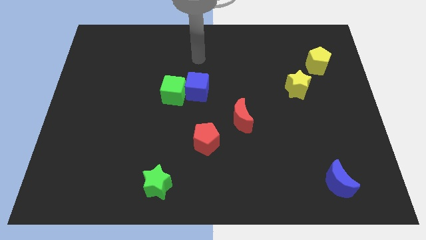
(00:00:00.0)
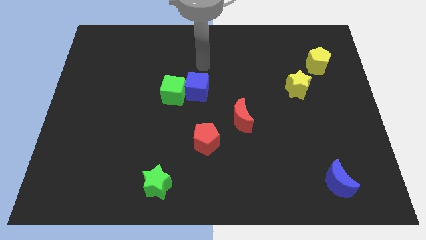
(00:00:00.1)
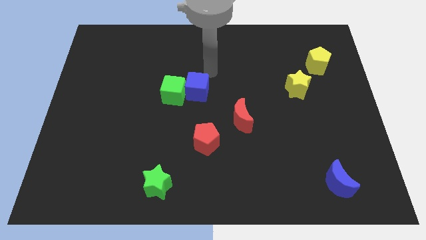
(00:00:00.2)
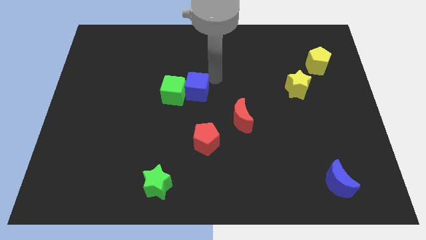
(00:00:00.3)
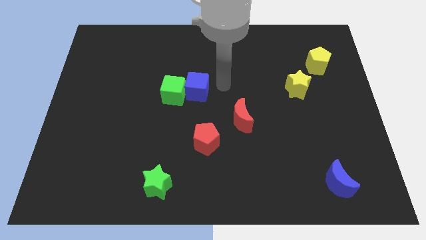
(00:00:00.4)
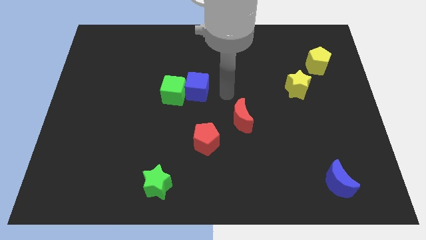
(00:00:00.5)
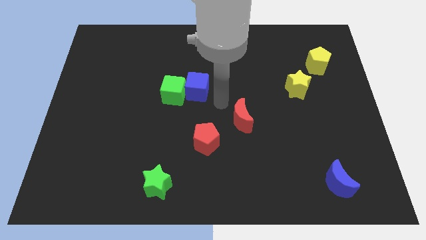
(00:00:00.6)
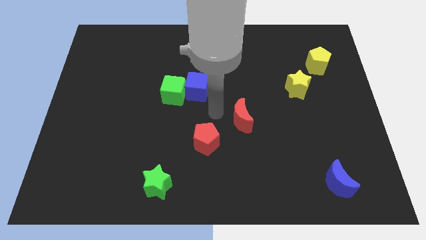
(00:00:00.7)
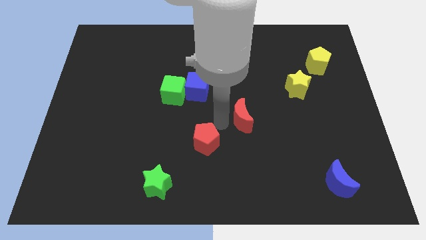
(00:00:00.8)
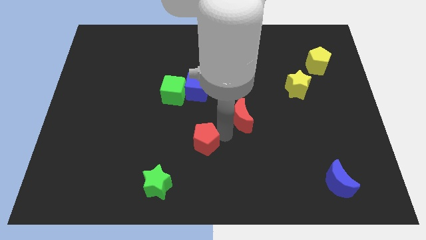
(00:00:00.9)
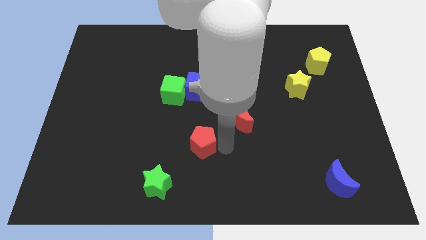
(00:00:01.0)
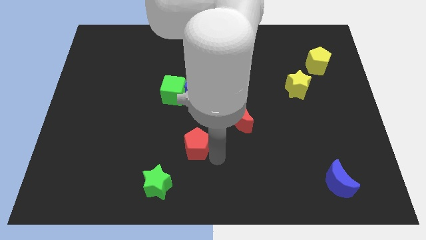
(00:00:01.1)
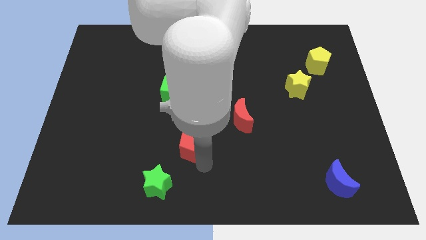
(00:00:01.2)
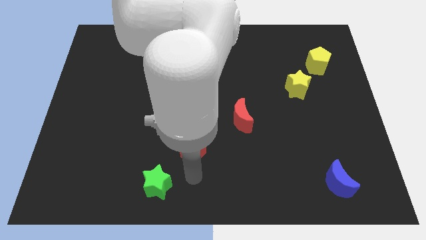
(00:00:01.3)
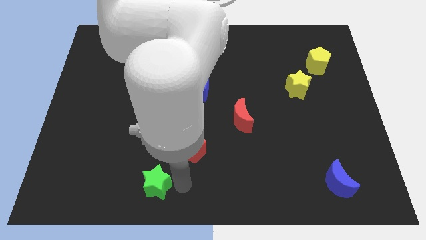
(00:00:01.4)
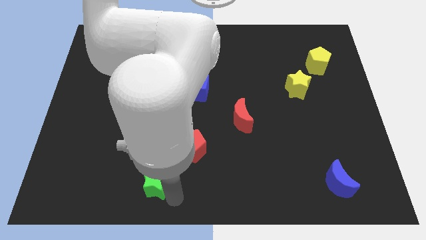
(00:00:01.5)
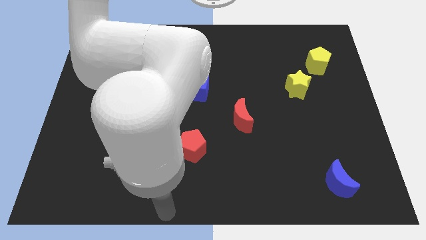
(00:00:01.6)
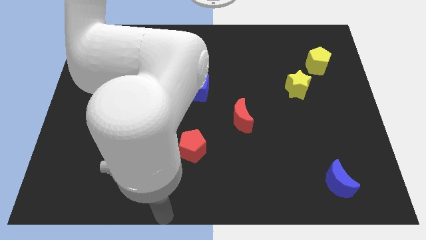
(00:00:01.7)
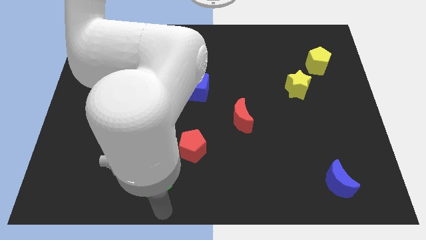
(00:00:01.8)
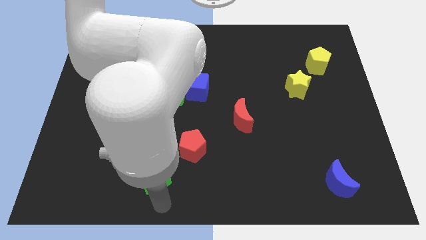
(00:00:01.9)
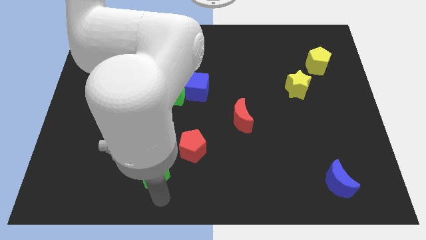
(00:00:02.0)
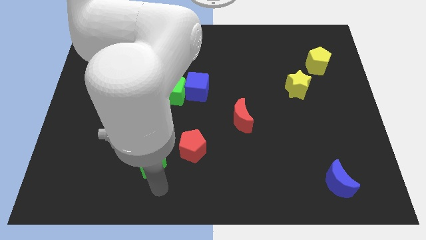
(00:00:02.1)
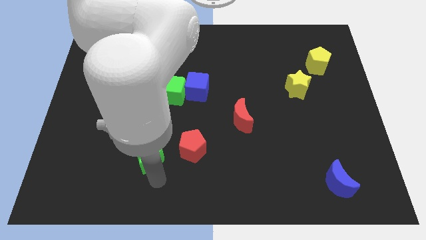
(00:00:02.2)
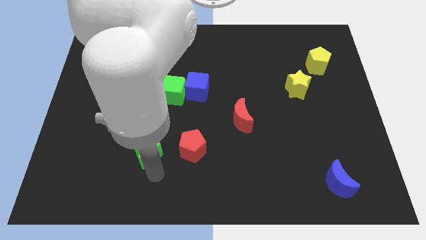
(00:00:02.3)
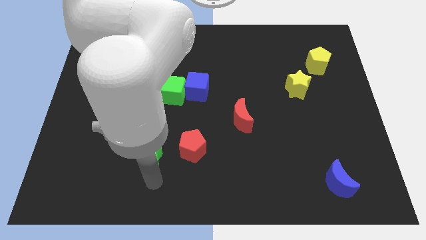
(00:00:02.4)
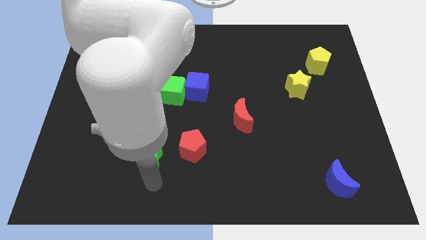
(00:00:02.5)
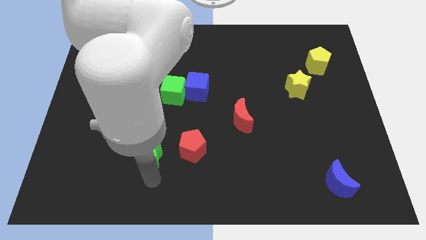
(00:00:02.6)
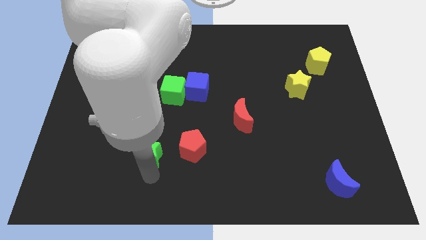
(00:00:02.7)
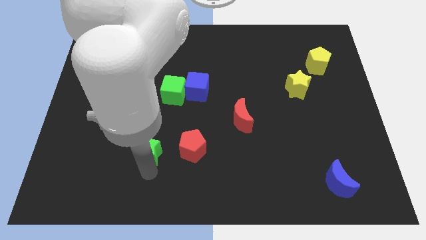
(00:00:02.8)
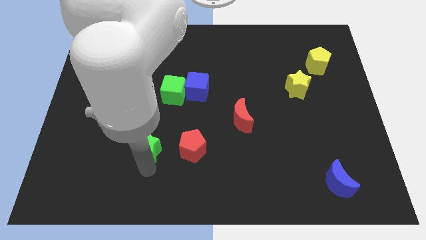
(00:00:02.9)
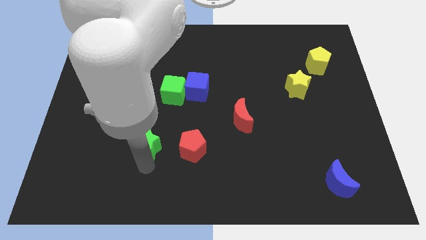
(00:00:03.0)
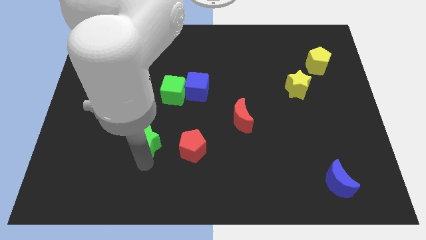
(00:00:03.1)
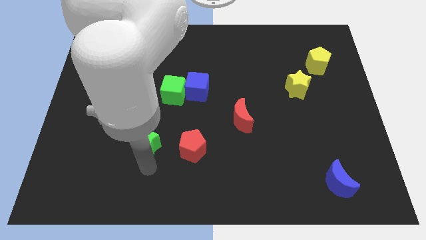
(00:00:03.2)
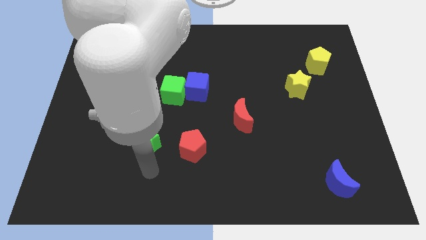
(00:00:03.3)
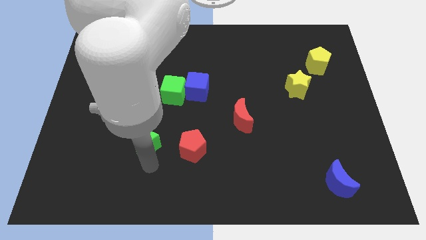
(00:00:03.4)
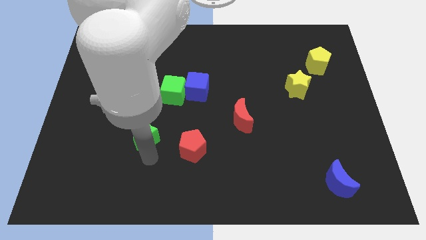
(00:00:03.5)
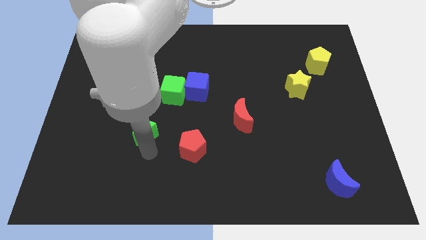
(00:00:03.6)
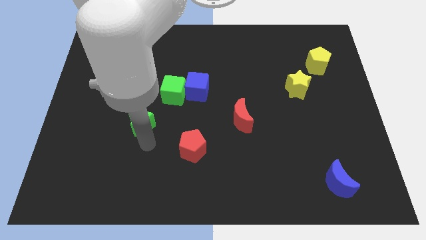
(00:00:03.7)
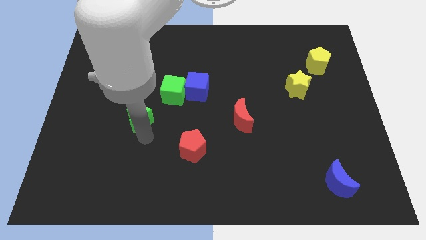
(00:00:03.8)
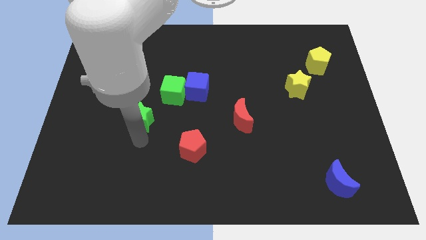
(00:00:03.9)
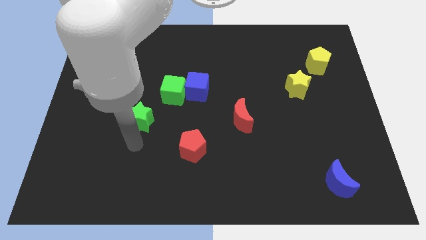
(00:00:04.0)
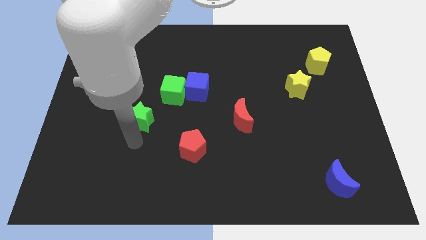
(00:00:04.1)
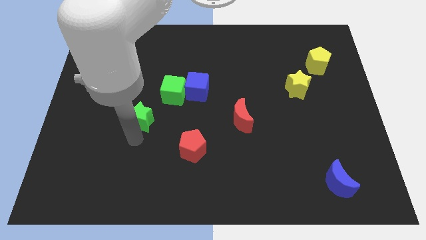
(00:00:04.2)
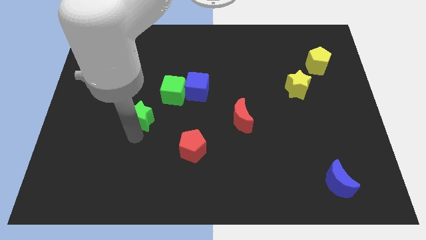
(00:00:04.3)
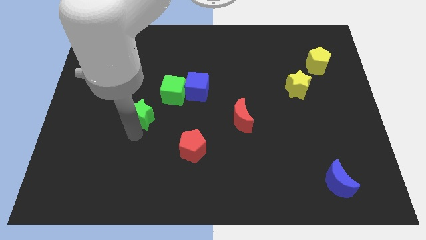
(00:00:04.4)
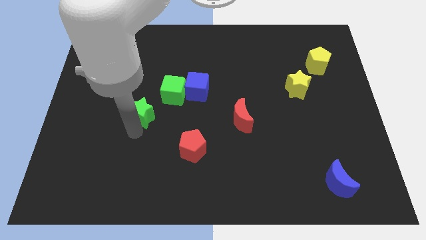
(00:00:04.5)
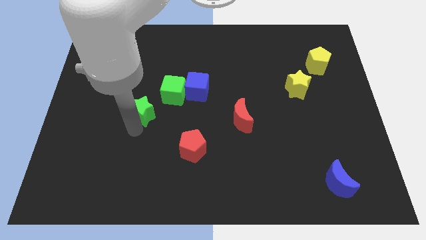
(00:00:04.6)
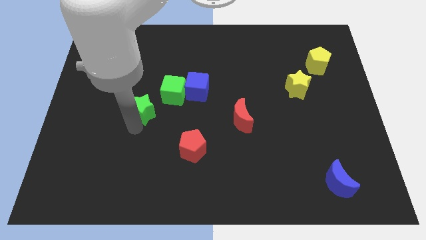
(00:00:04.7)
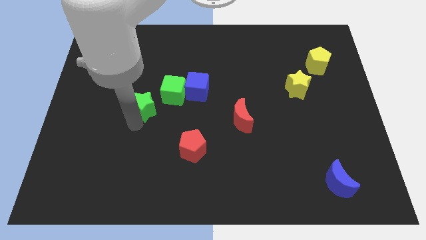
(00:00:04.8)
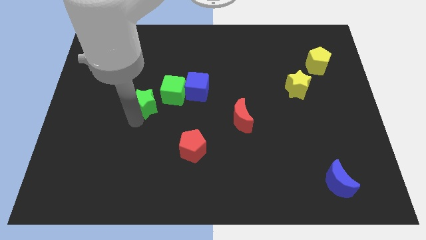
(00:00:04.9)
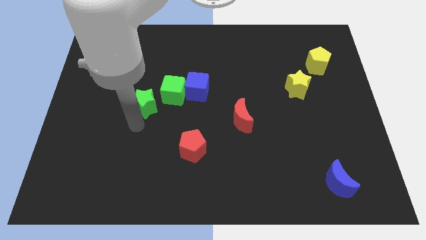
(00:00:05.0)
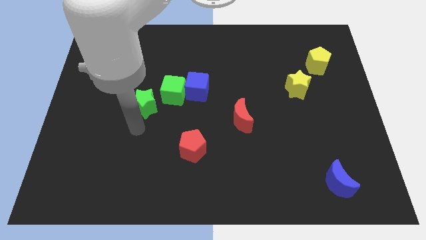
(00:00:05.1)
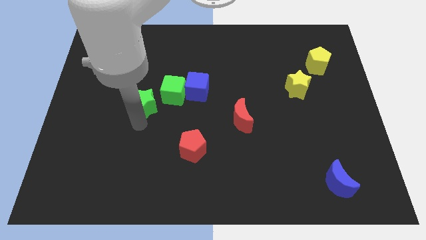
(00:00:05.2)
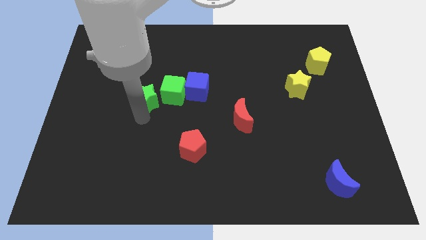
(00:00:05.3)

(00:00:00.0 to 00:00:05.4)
push the green star upwards

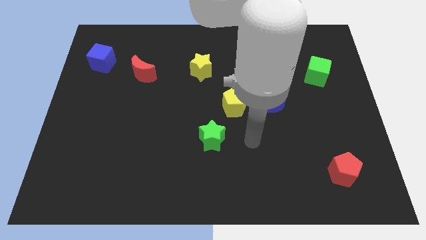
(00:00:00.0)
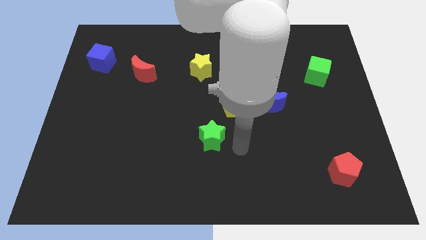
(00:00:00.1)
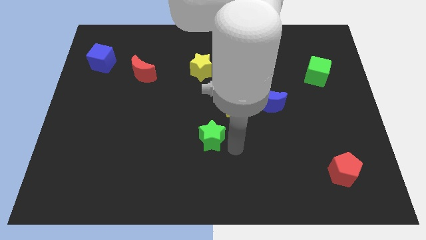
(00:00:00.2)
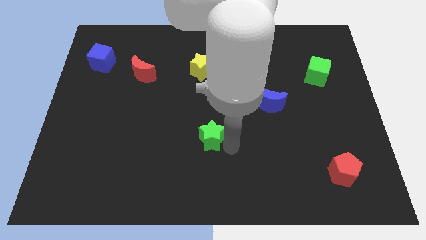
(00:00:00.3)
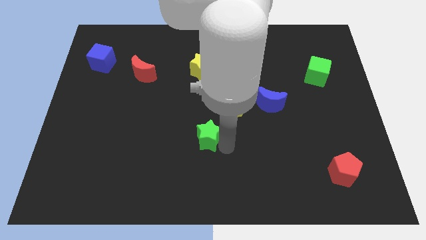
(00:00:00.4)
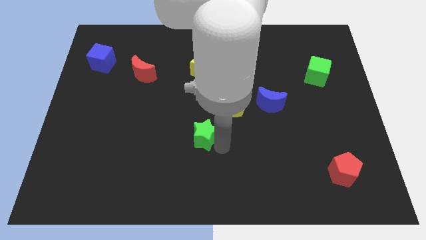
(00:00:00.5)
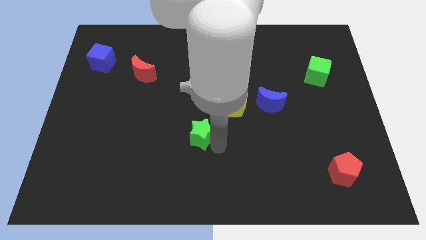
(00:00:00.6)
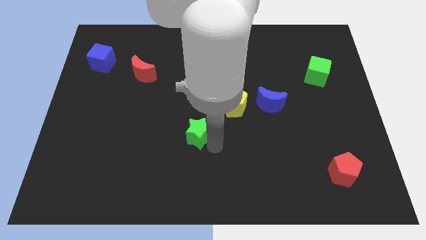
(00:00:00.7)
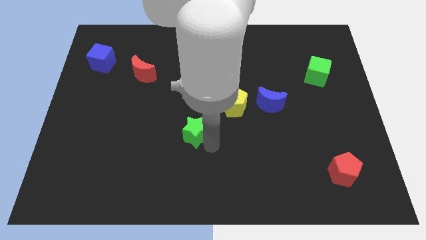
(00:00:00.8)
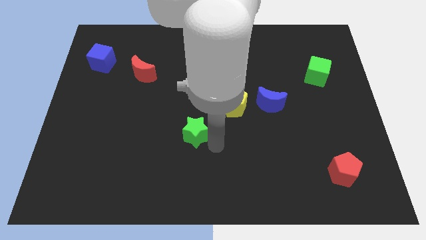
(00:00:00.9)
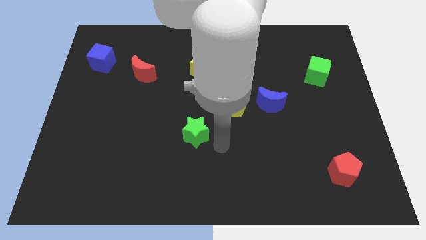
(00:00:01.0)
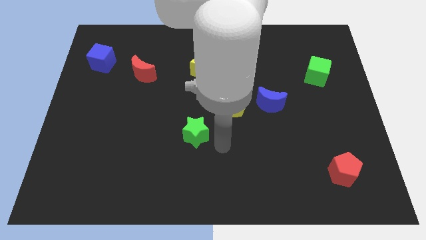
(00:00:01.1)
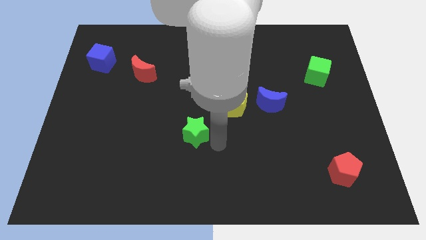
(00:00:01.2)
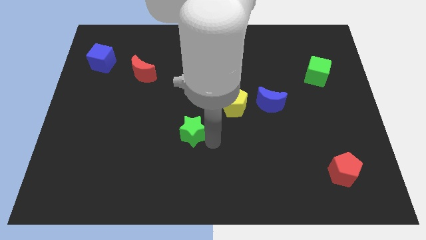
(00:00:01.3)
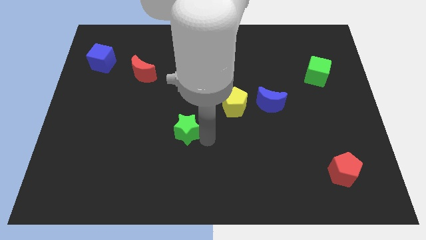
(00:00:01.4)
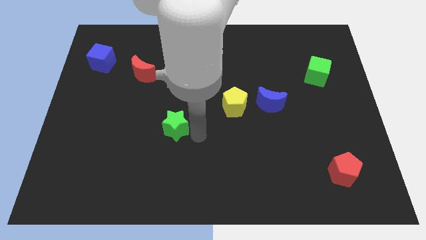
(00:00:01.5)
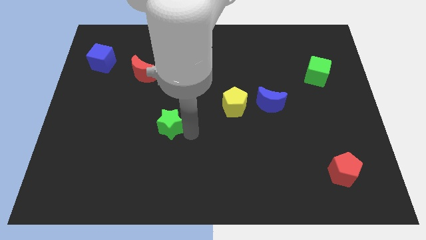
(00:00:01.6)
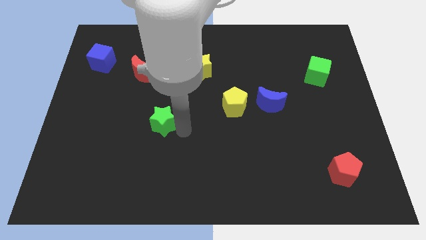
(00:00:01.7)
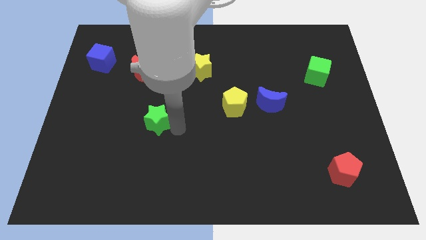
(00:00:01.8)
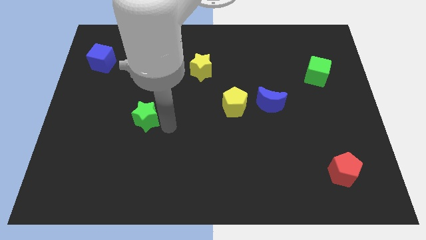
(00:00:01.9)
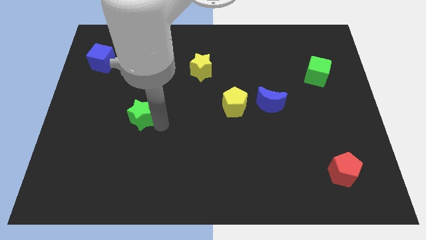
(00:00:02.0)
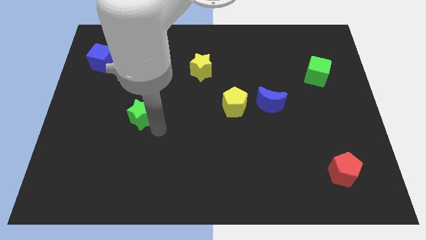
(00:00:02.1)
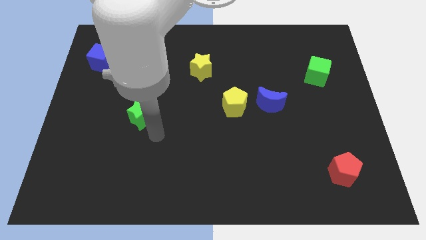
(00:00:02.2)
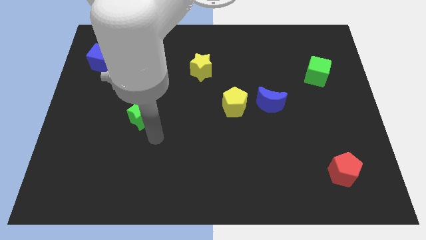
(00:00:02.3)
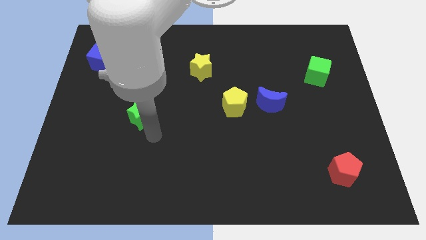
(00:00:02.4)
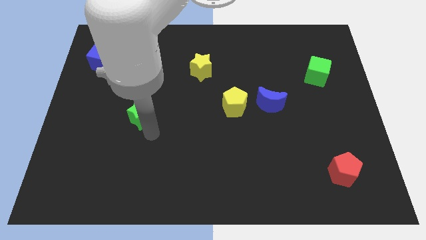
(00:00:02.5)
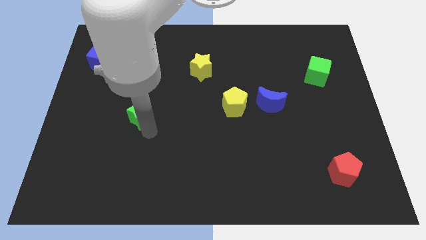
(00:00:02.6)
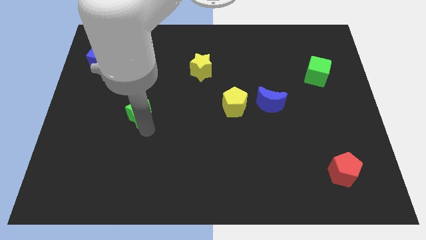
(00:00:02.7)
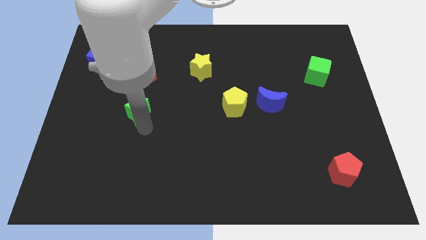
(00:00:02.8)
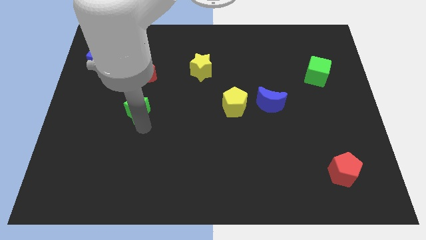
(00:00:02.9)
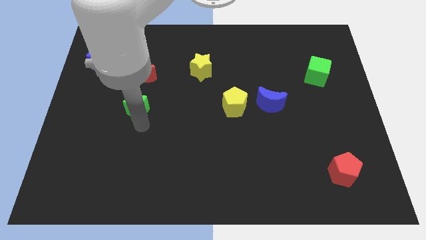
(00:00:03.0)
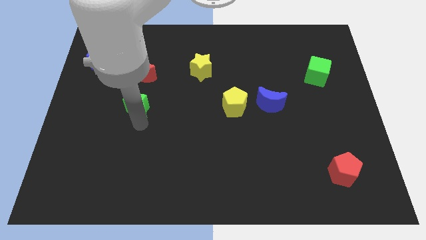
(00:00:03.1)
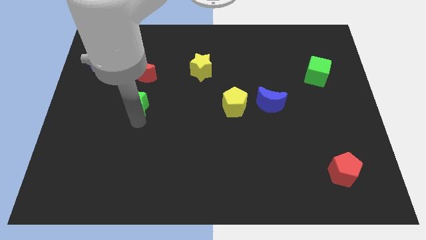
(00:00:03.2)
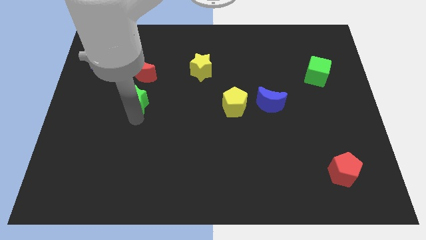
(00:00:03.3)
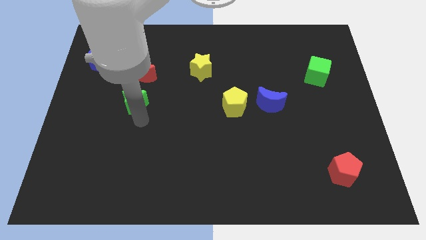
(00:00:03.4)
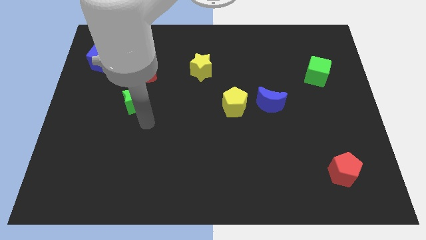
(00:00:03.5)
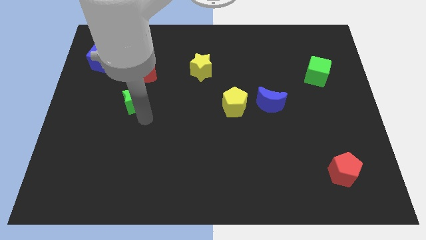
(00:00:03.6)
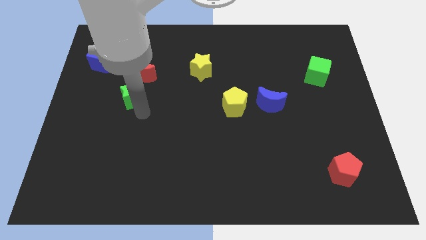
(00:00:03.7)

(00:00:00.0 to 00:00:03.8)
push the green star upwards and left diagonally
